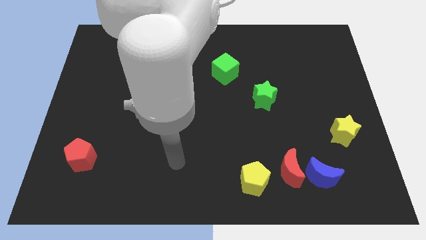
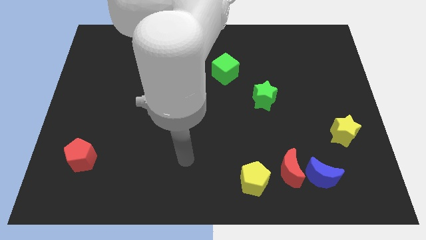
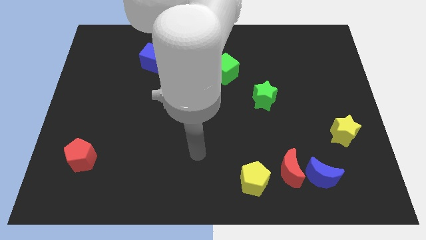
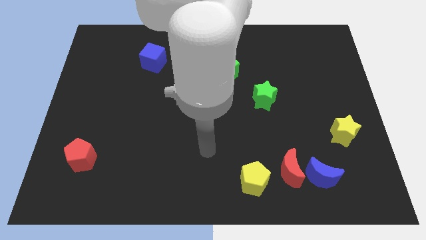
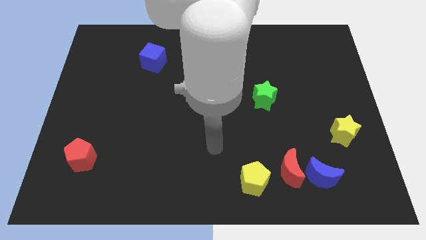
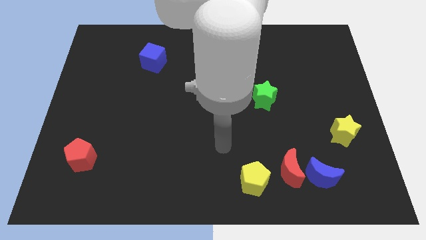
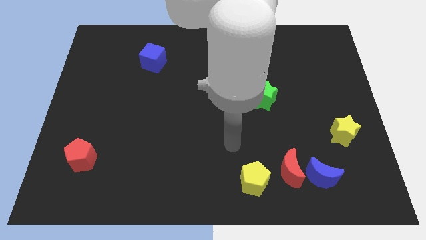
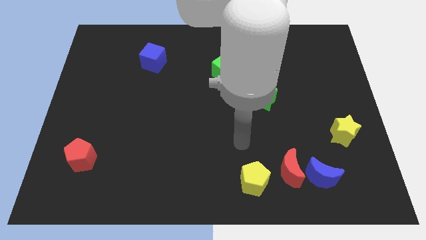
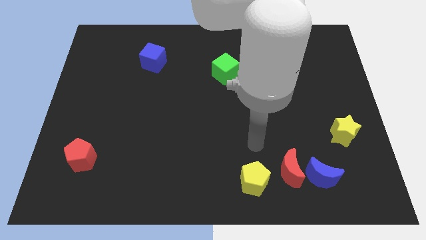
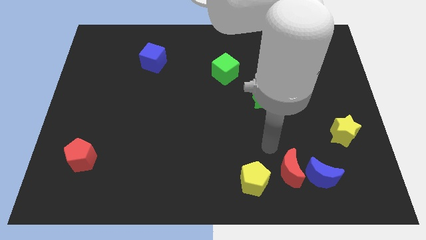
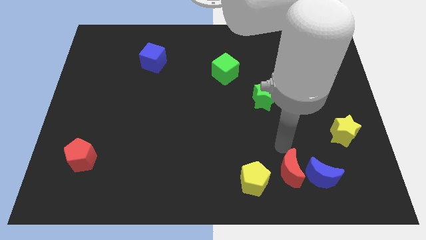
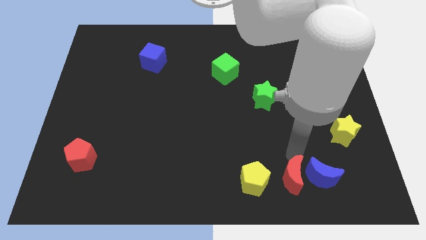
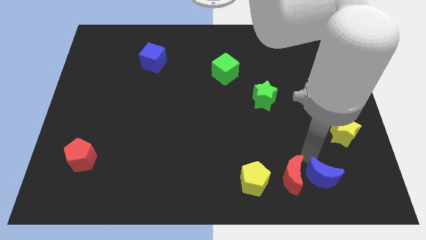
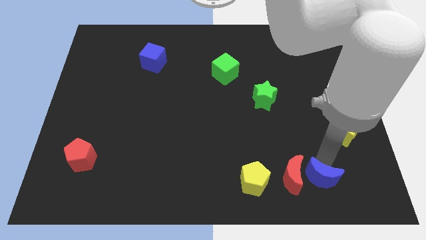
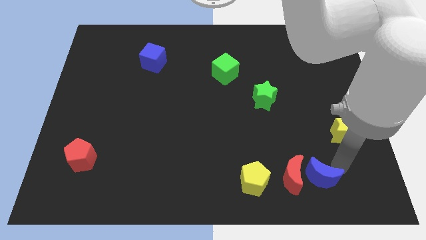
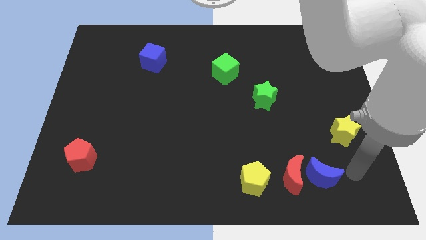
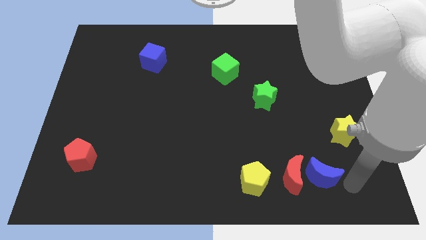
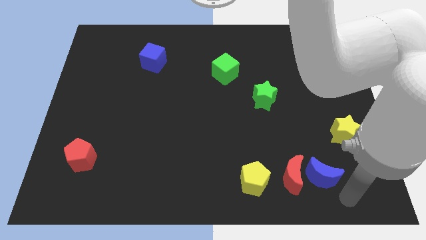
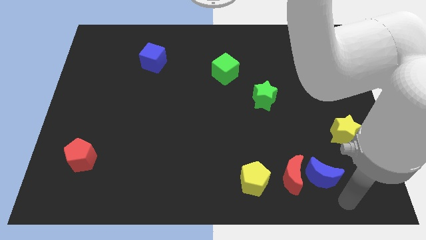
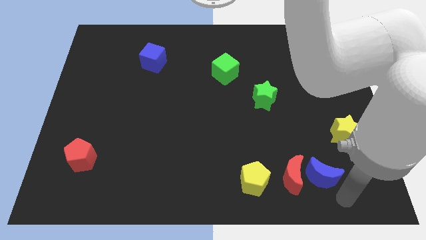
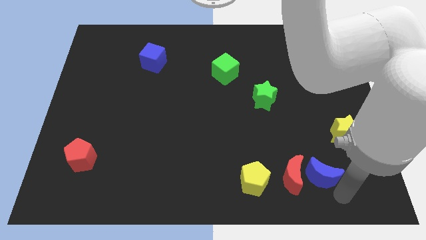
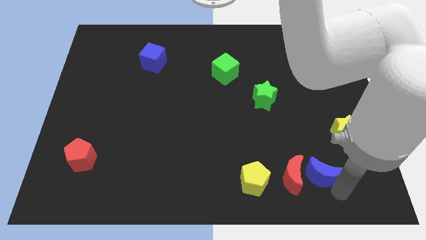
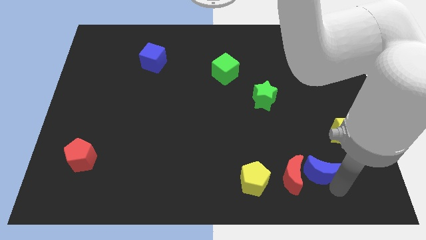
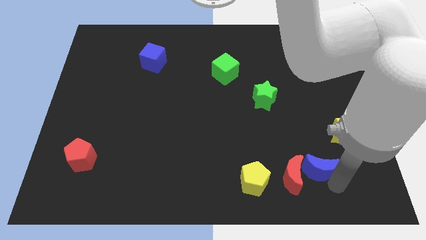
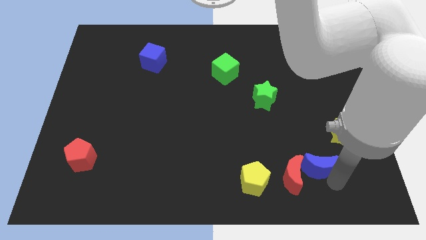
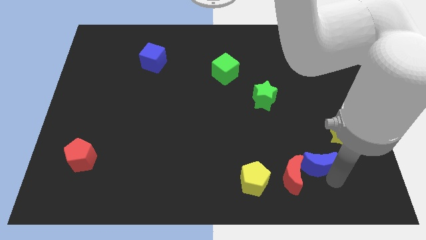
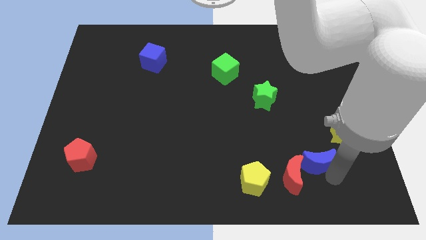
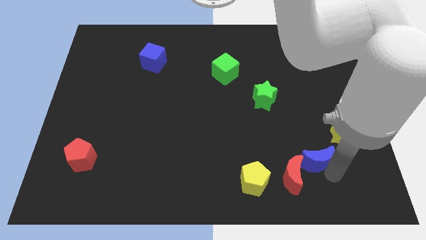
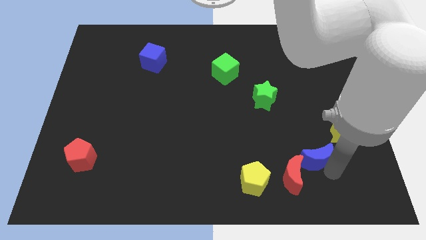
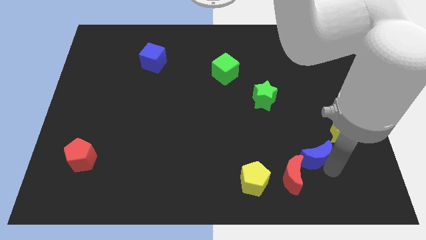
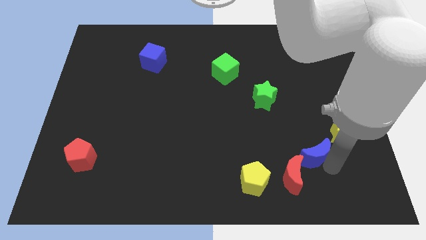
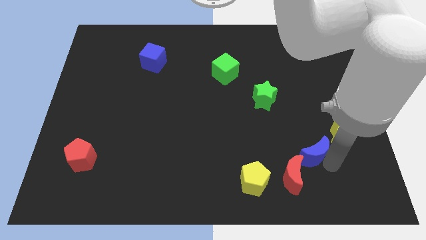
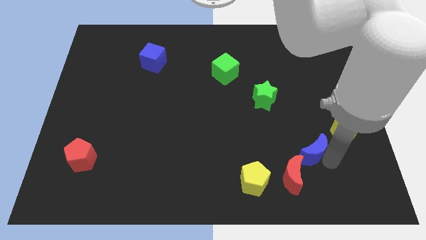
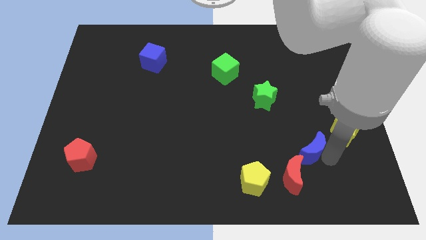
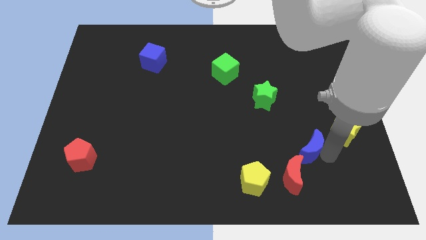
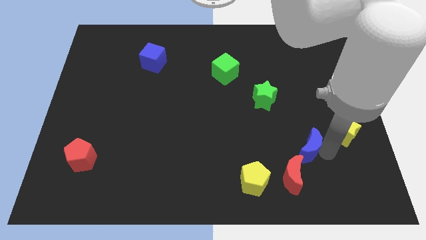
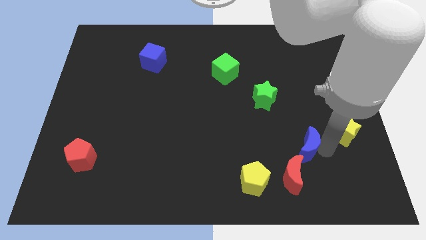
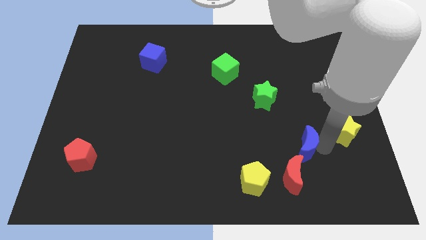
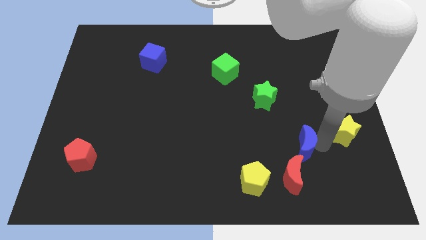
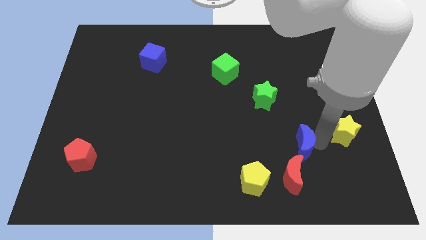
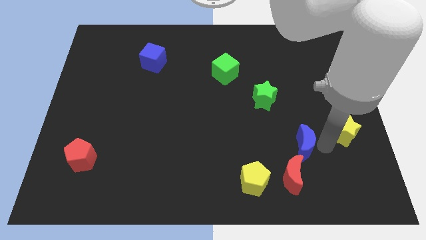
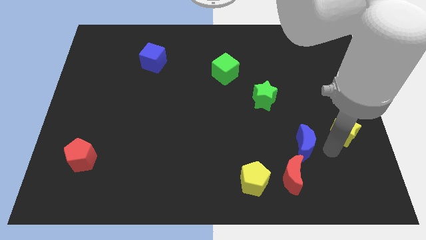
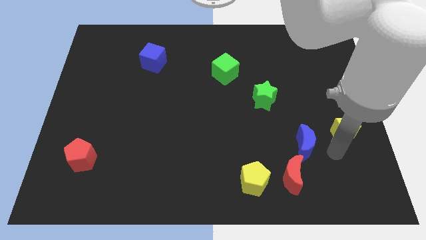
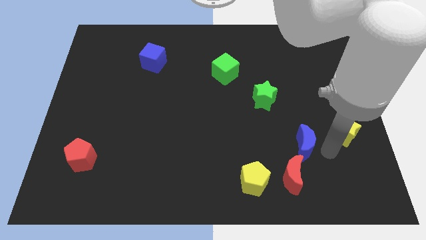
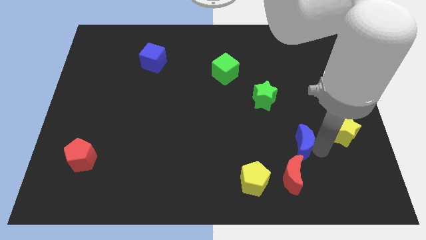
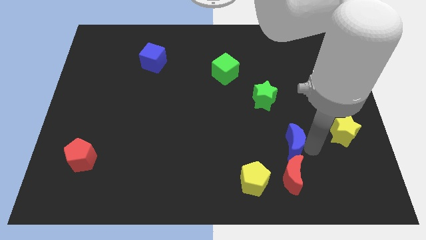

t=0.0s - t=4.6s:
push the blue moon somewhat upwards and to the left diagonally

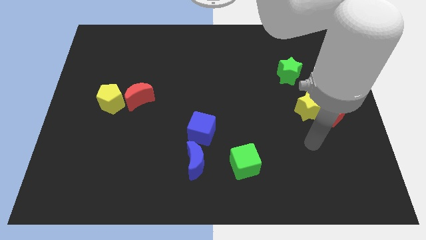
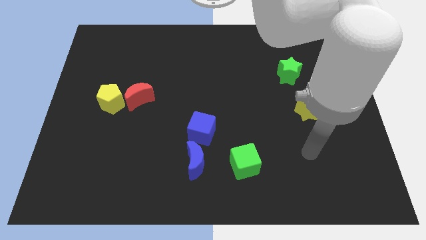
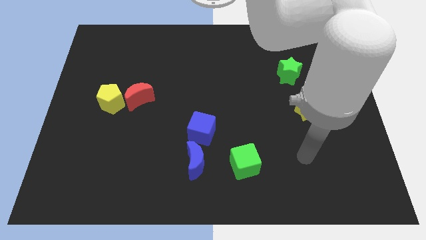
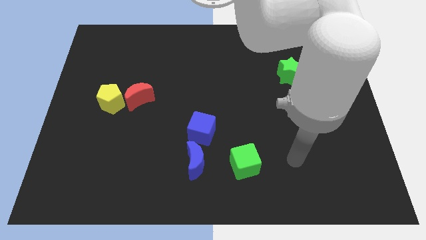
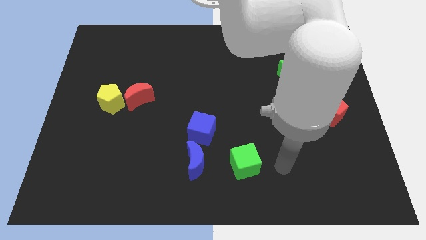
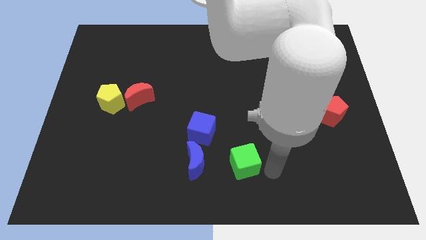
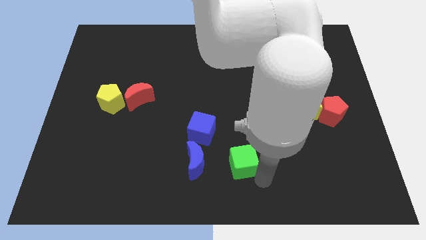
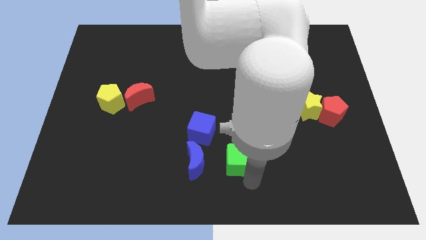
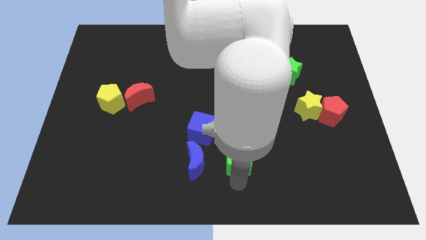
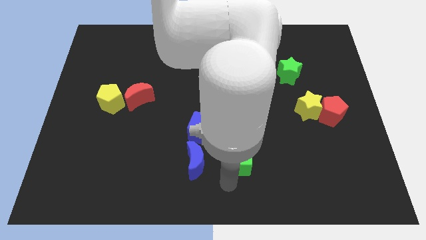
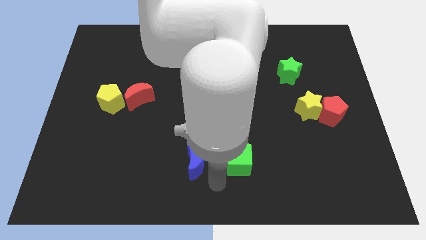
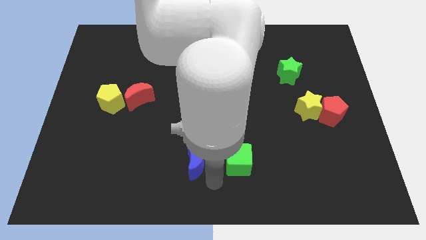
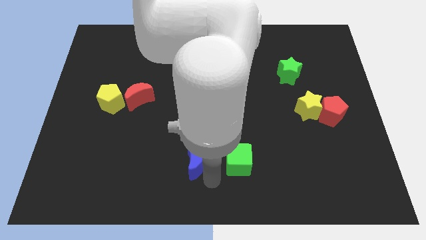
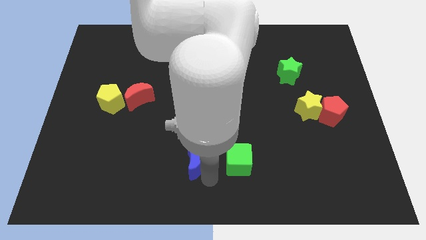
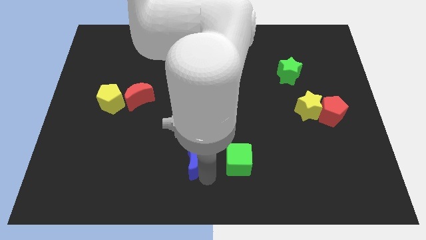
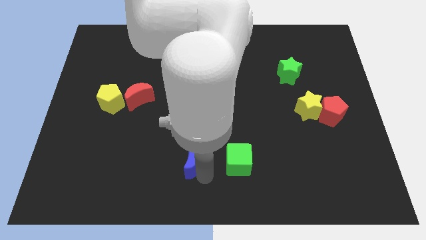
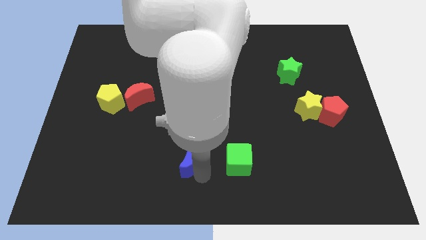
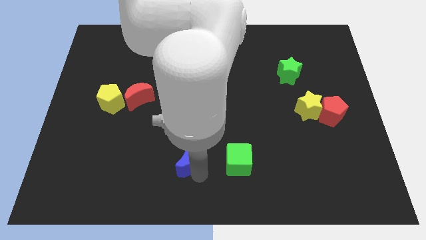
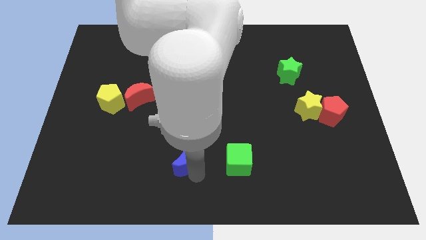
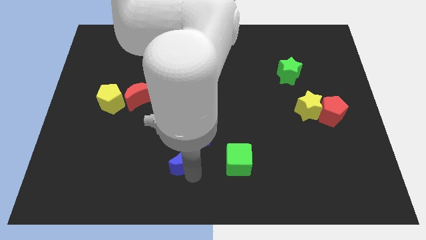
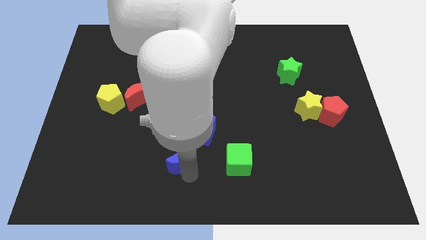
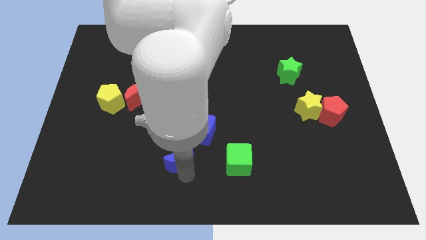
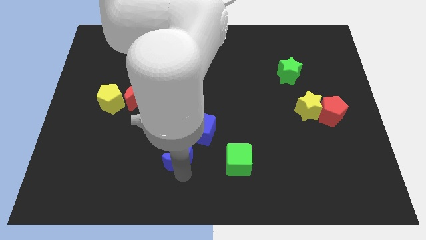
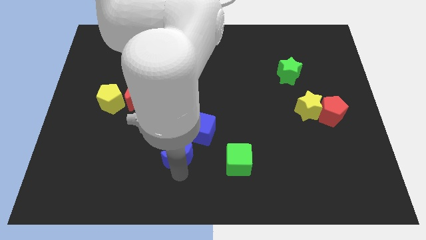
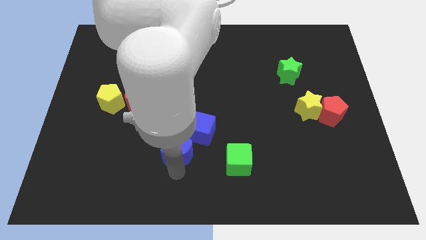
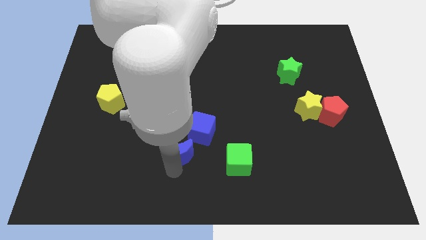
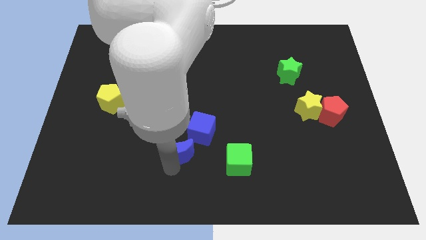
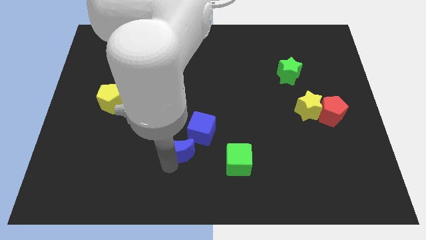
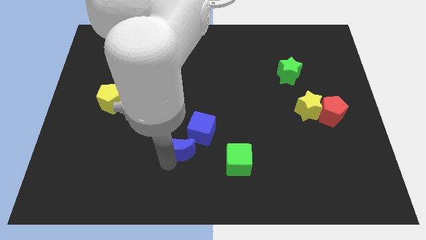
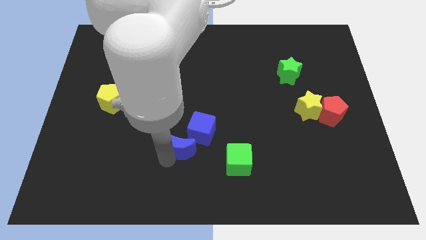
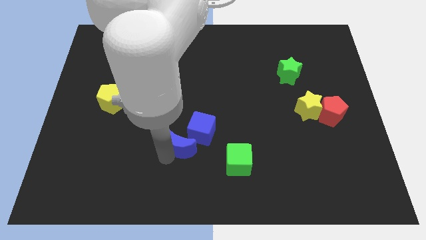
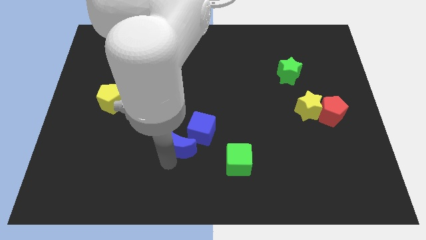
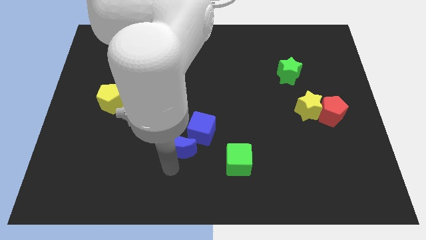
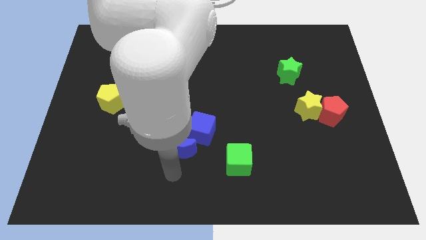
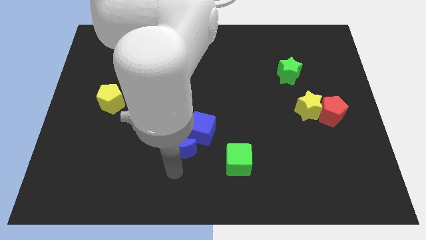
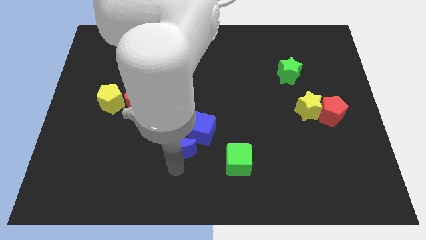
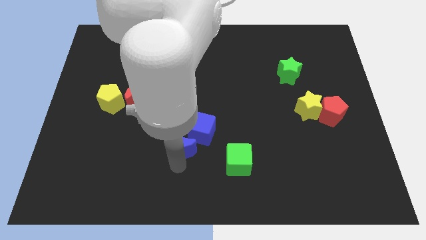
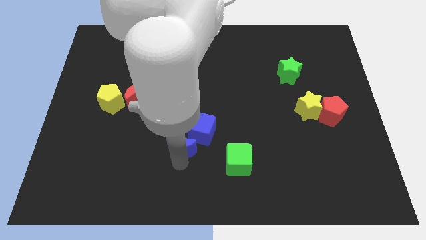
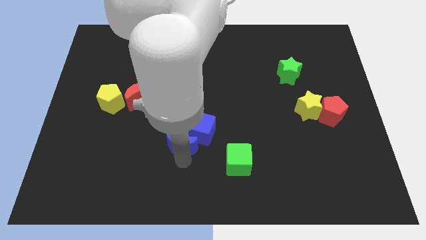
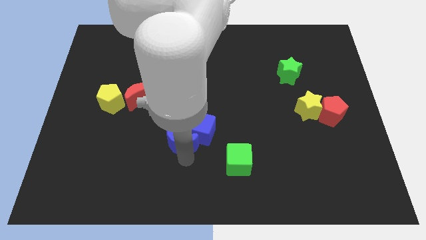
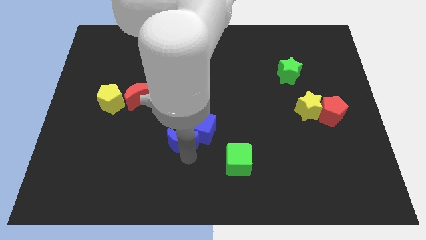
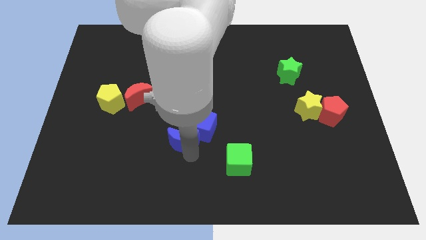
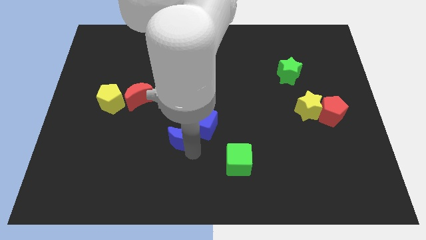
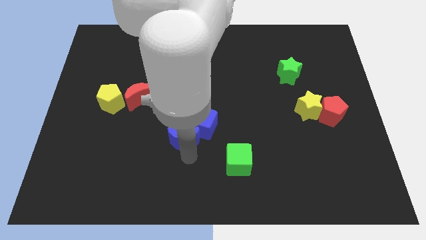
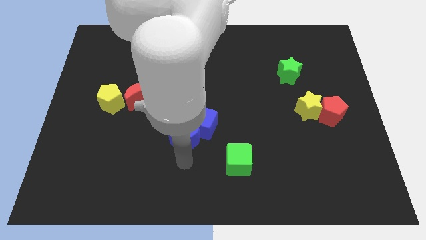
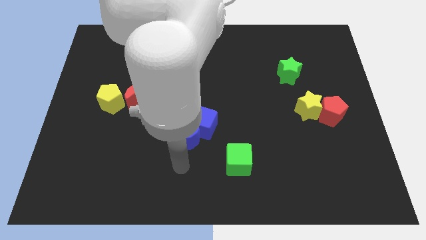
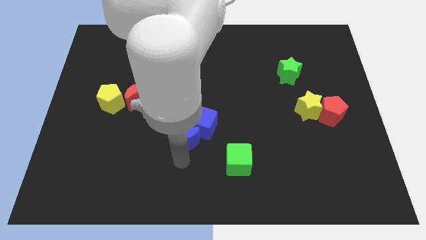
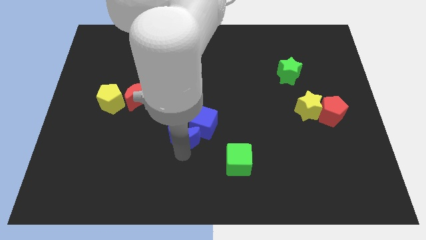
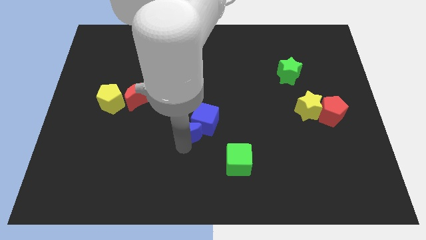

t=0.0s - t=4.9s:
move the blue moon up somewhat
